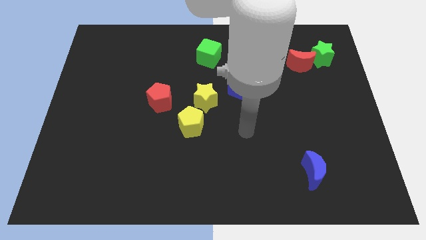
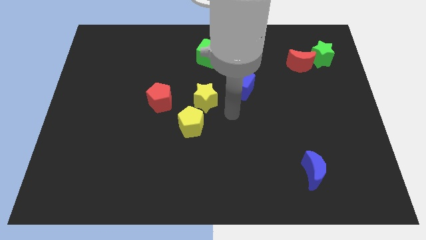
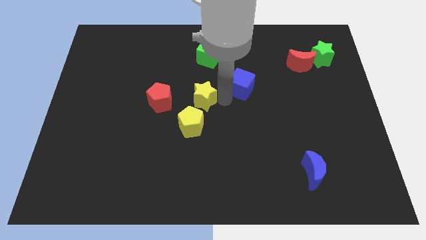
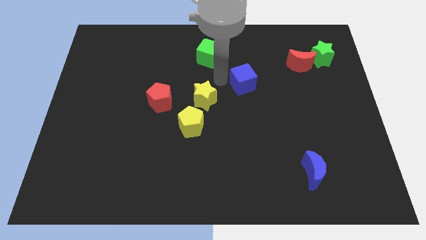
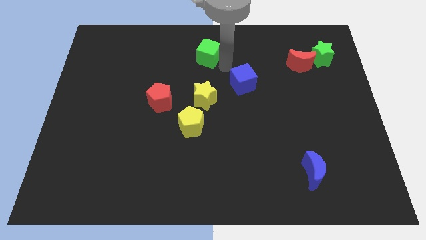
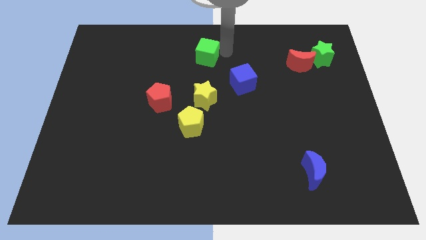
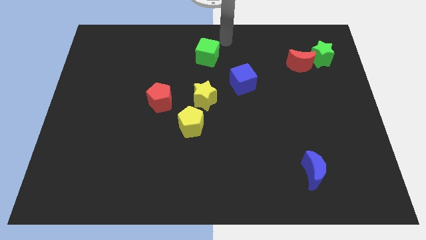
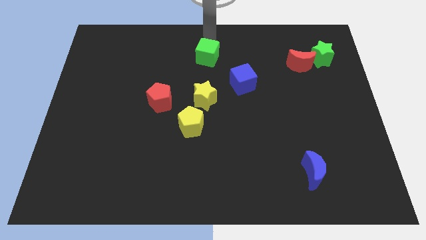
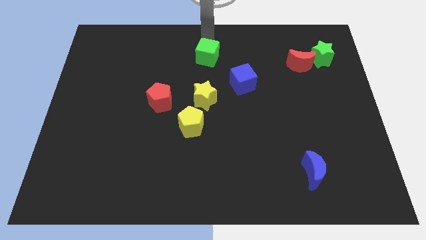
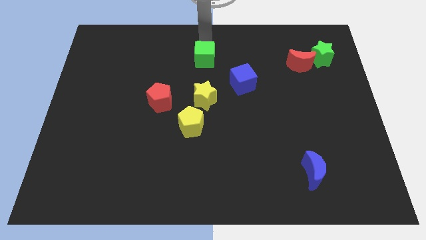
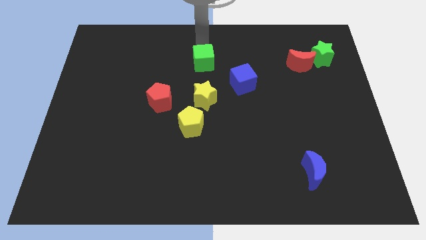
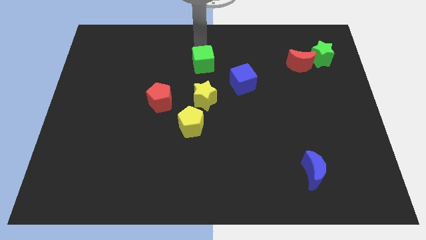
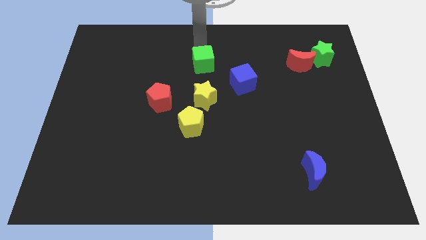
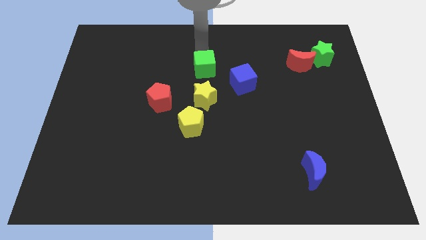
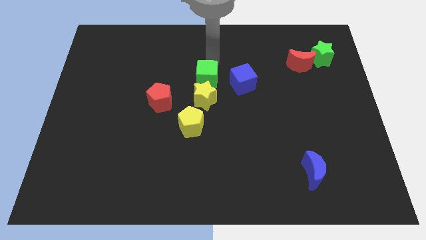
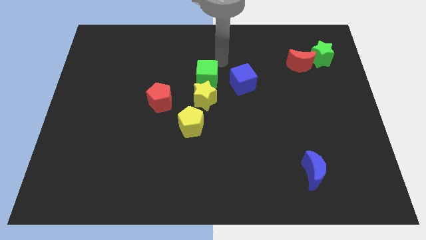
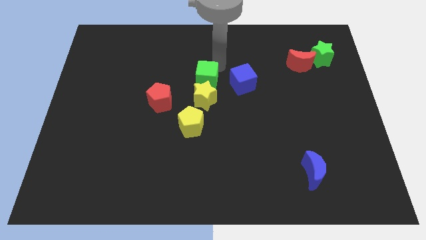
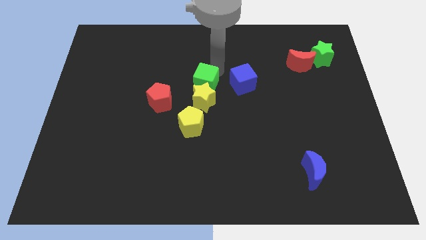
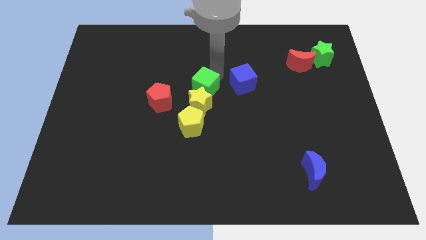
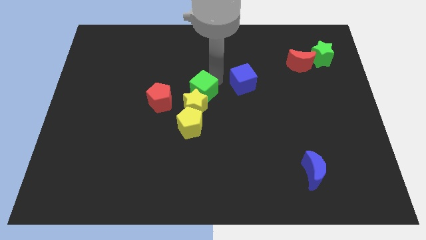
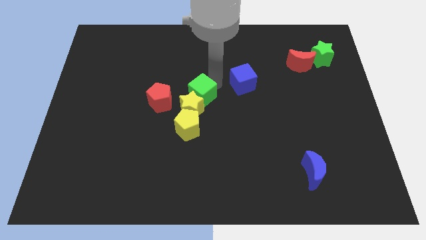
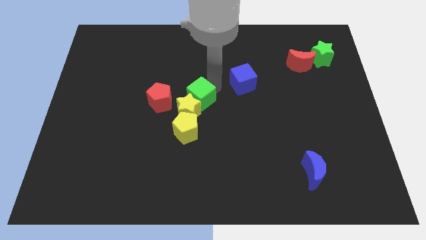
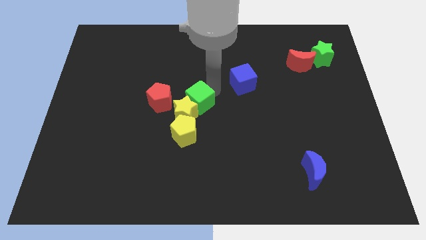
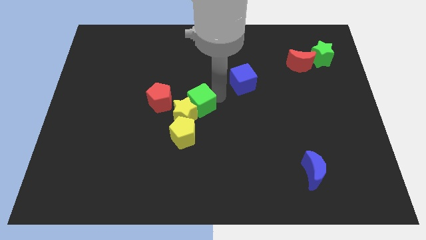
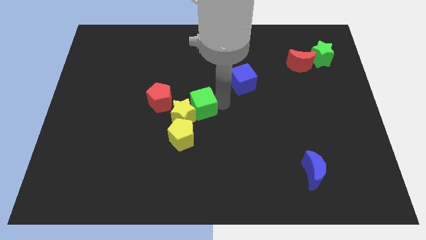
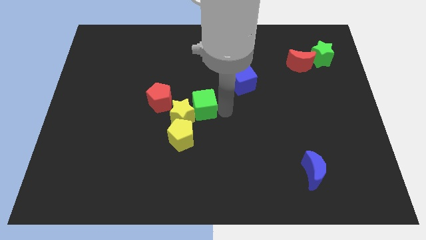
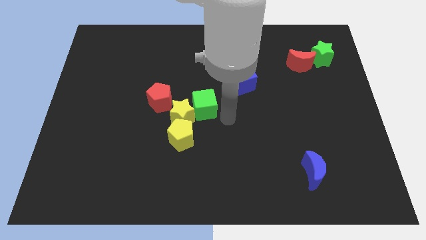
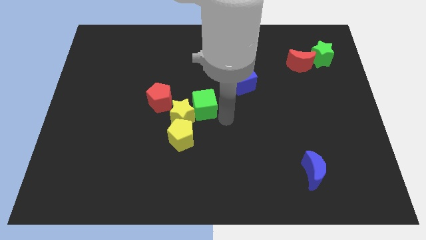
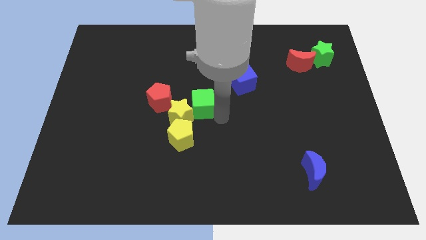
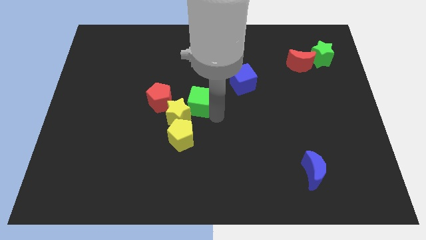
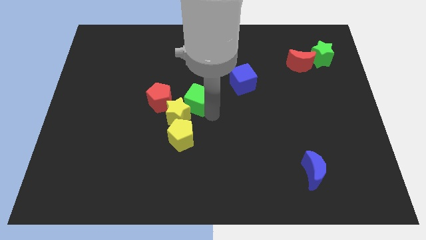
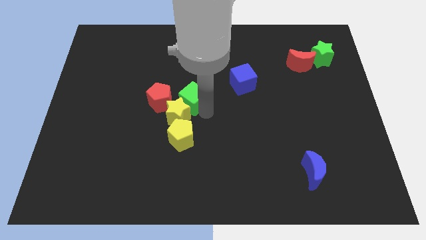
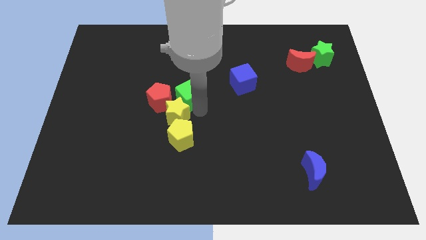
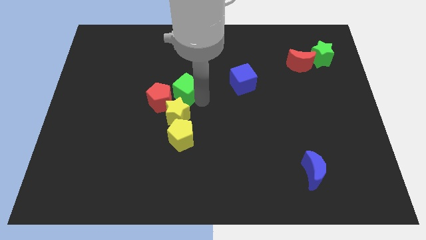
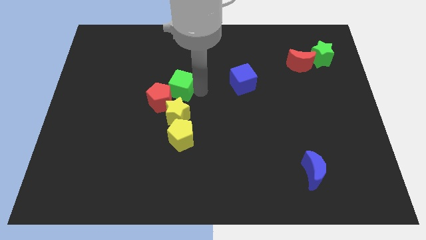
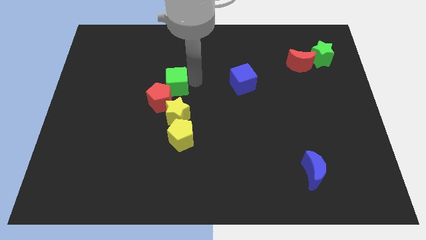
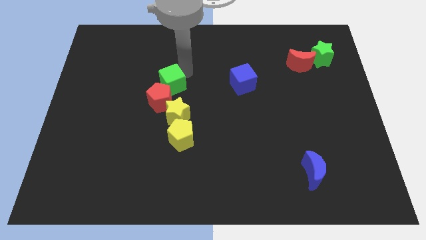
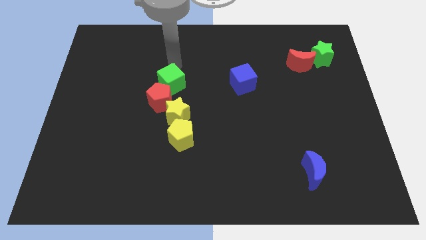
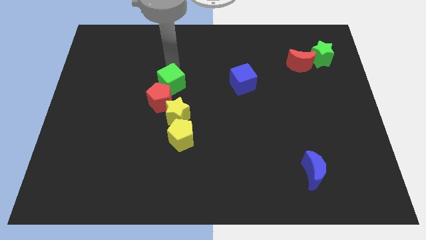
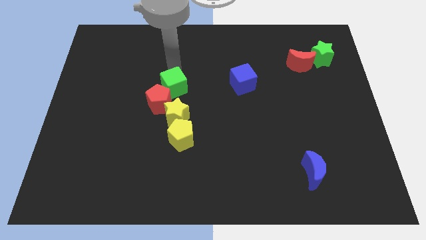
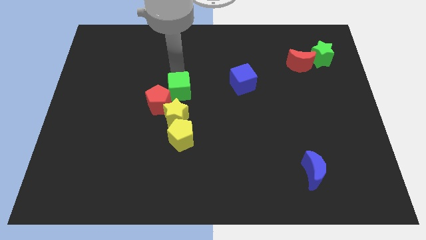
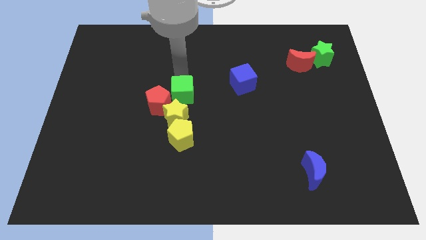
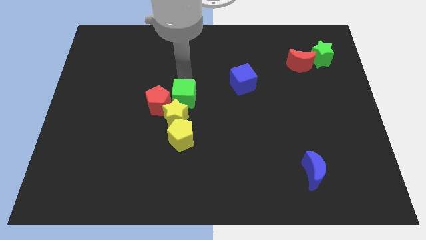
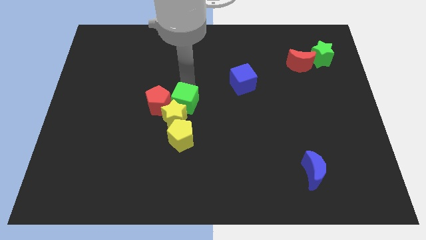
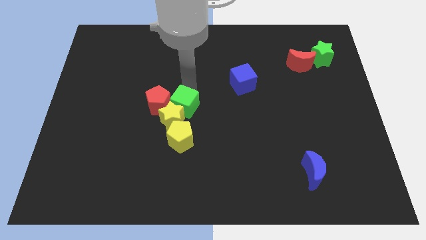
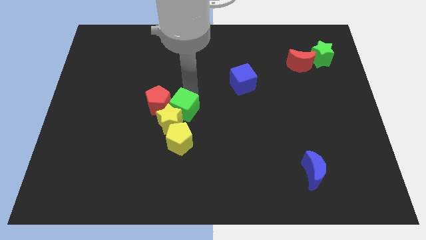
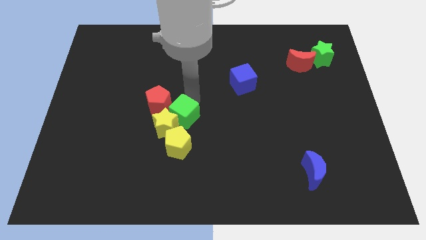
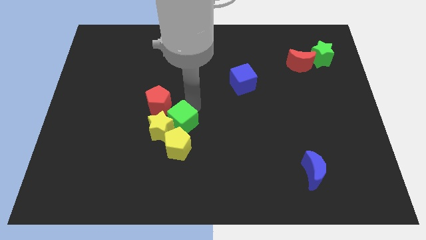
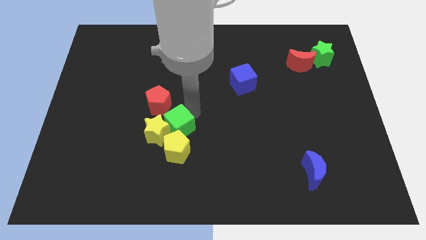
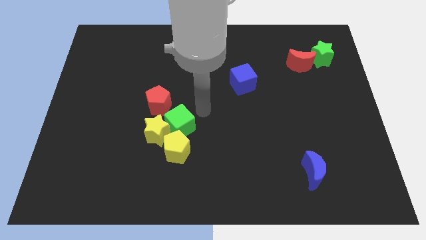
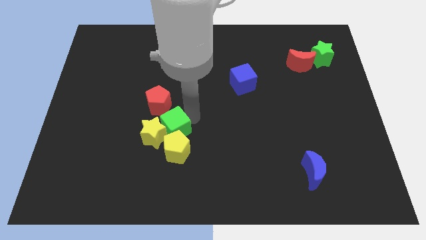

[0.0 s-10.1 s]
put the green cube to the bottom of the red pentagon

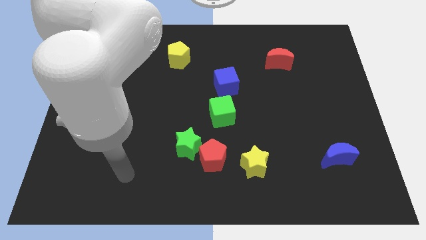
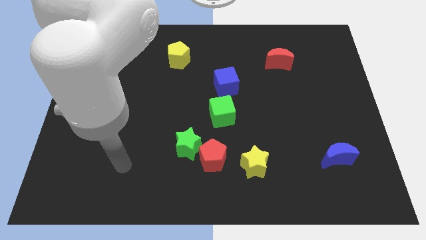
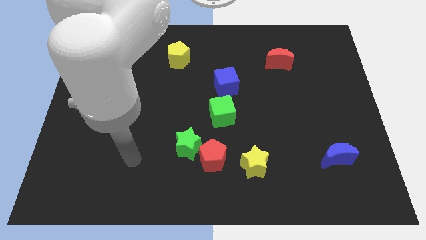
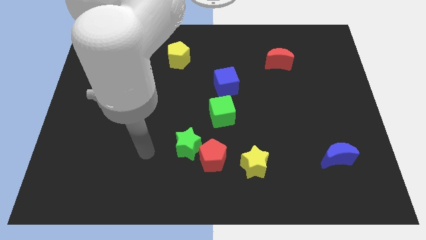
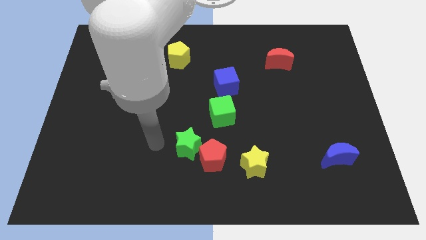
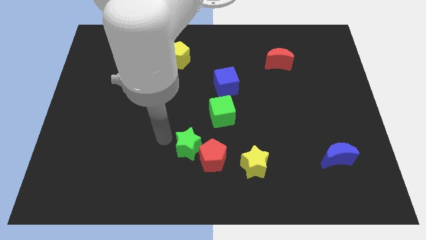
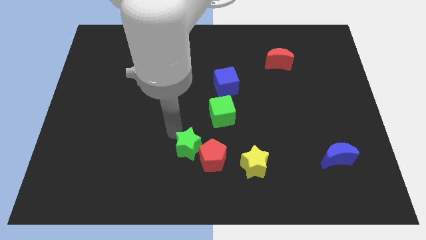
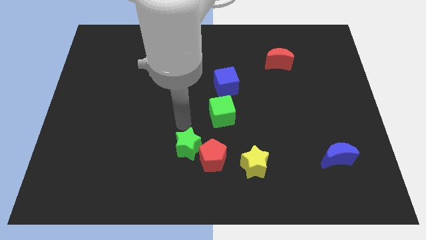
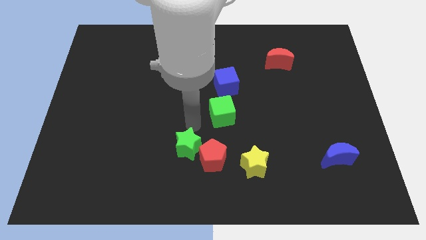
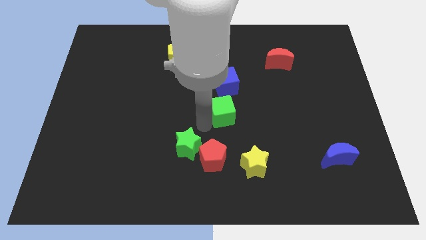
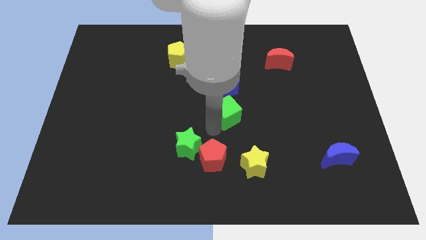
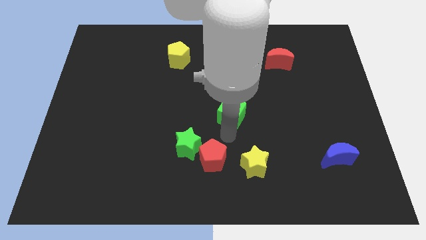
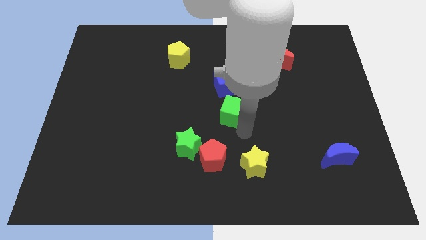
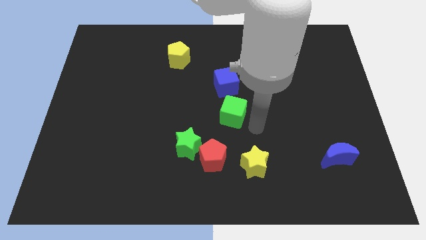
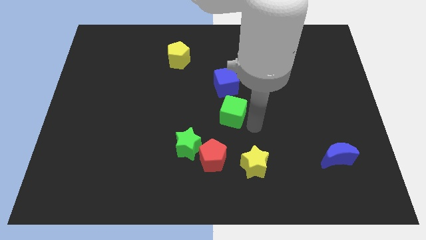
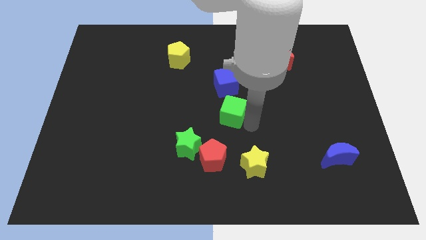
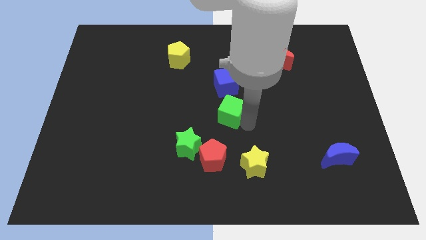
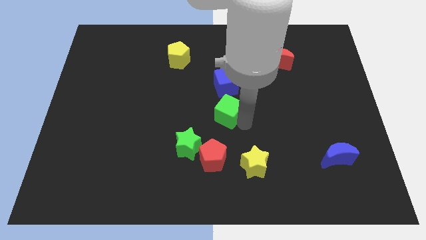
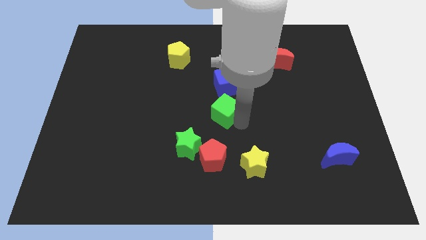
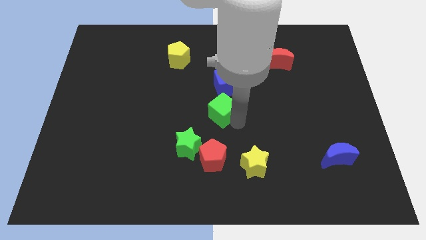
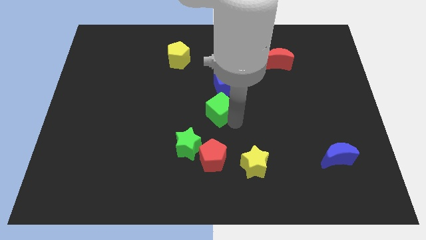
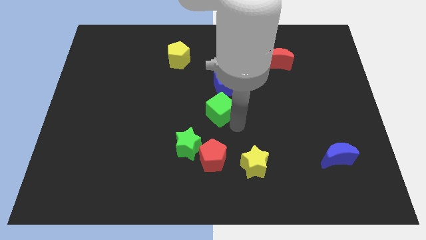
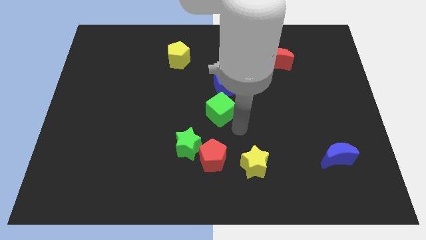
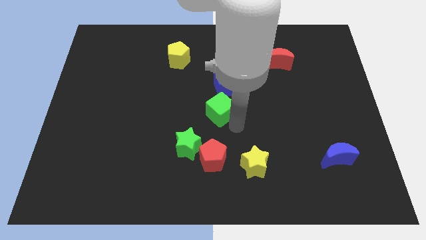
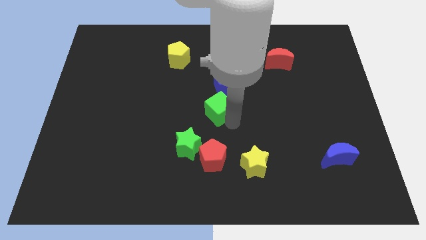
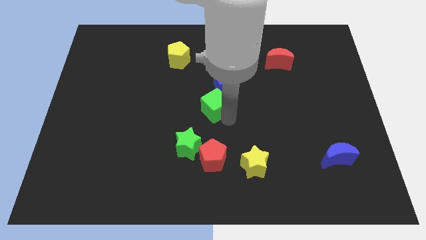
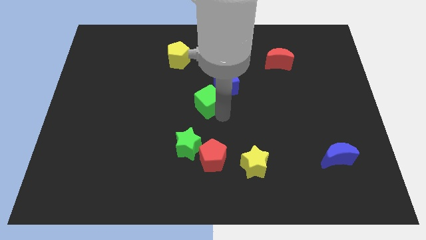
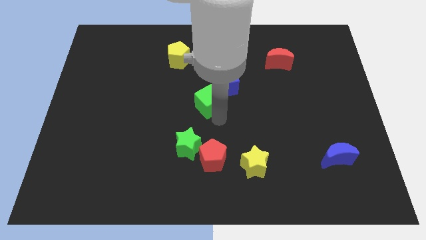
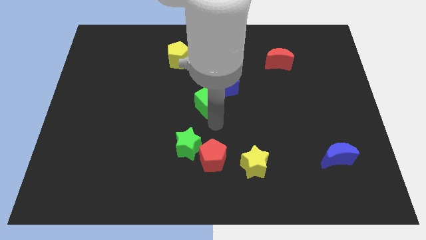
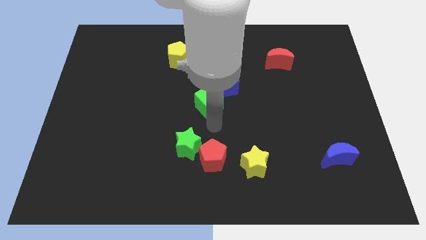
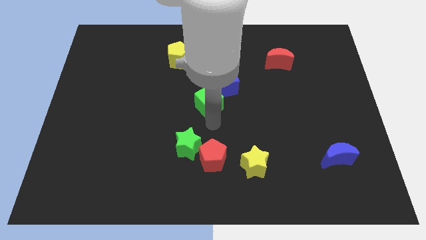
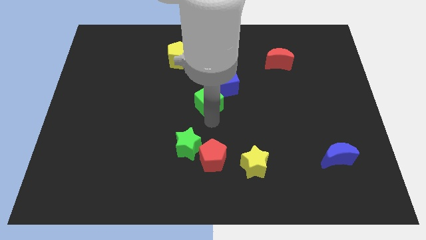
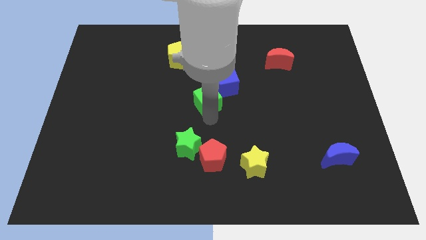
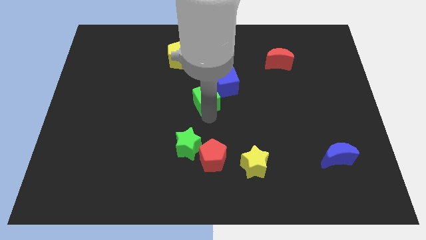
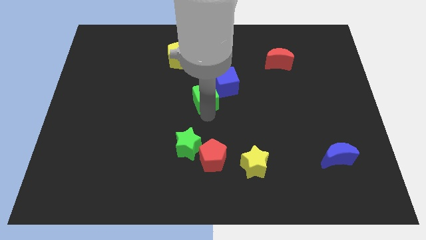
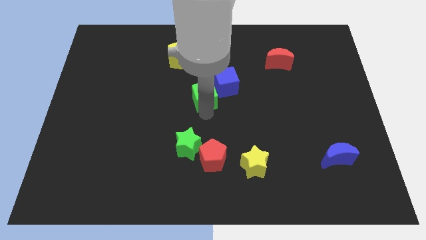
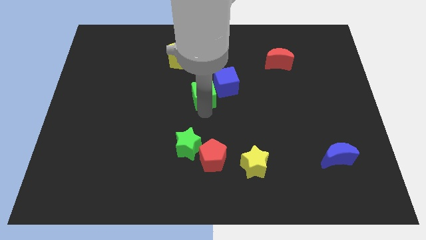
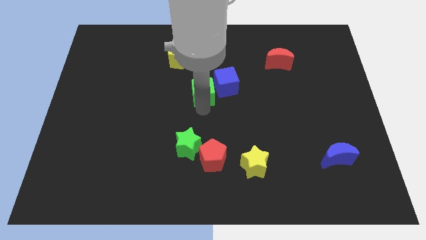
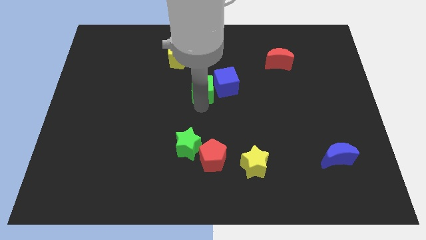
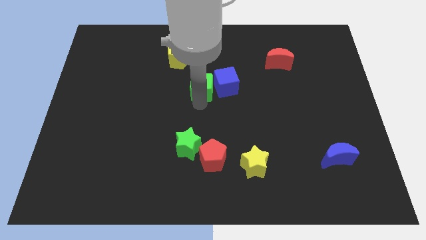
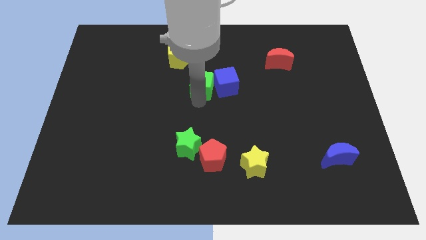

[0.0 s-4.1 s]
slide the green cube to the top left of the blue cube
